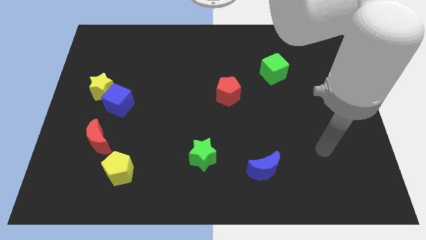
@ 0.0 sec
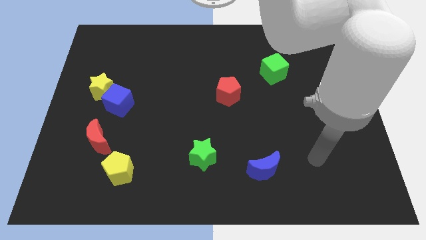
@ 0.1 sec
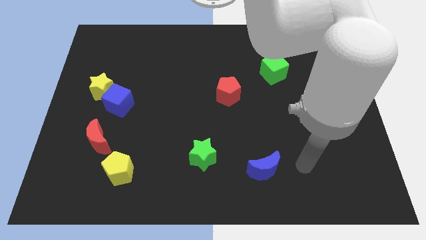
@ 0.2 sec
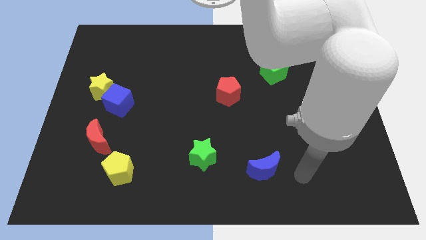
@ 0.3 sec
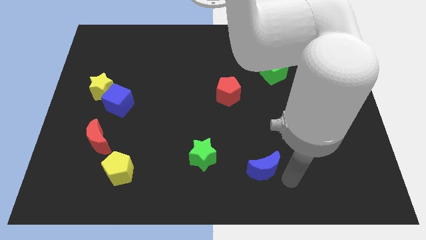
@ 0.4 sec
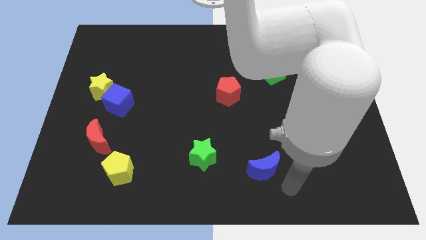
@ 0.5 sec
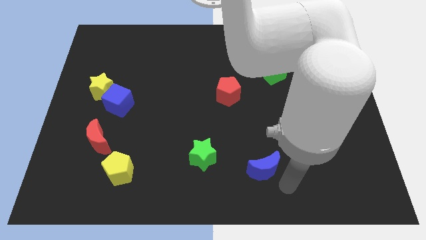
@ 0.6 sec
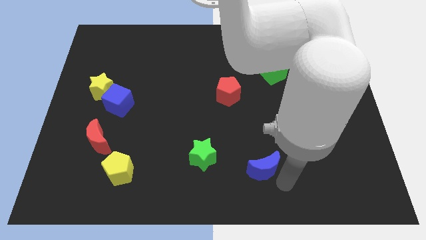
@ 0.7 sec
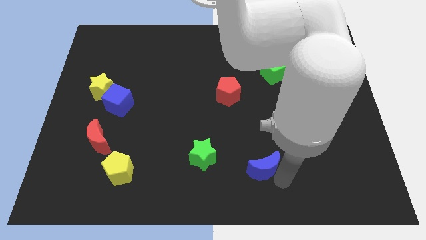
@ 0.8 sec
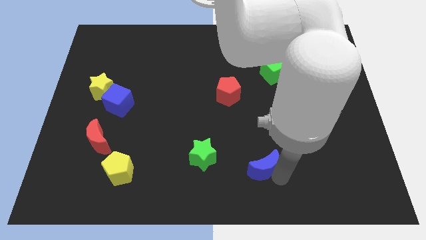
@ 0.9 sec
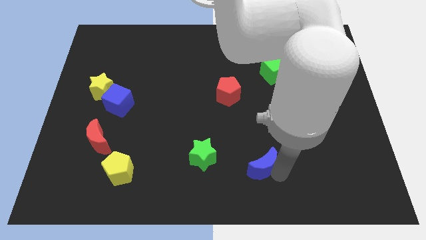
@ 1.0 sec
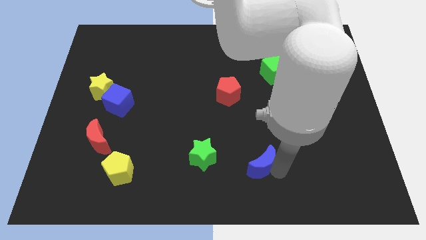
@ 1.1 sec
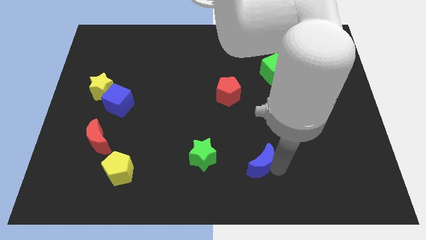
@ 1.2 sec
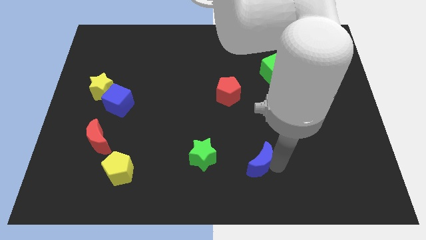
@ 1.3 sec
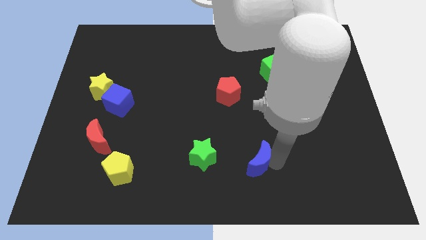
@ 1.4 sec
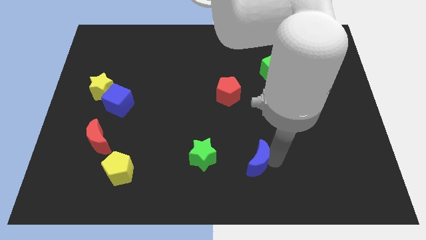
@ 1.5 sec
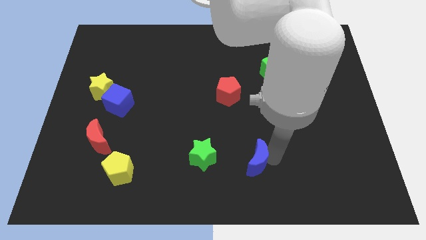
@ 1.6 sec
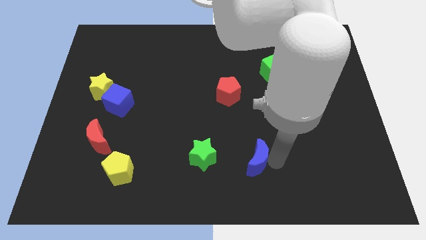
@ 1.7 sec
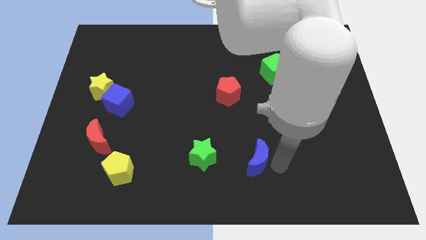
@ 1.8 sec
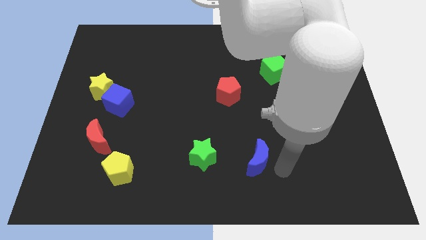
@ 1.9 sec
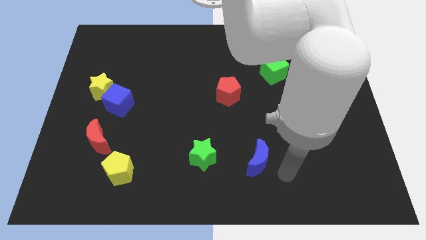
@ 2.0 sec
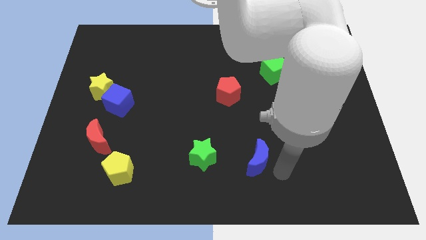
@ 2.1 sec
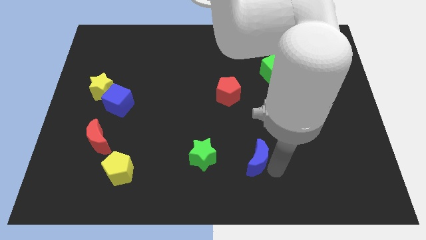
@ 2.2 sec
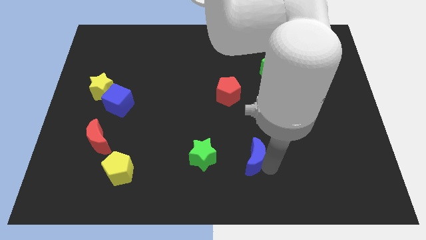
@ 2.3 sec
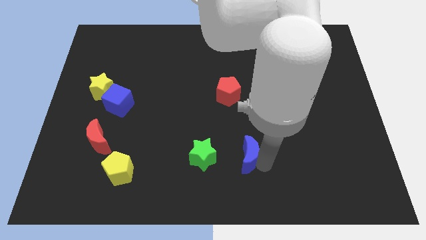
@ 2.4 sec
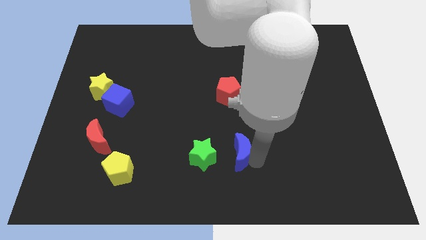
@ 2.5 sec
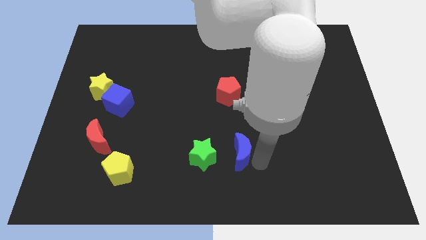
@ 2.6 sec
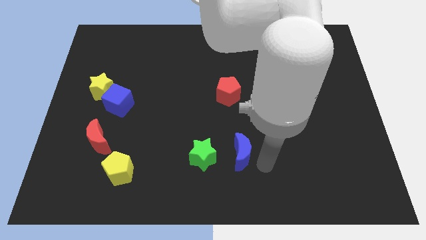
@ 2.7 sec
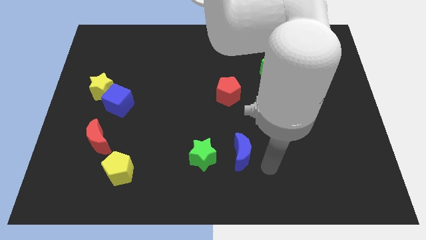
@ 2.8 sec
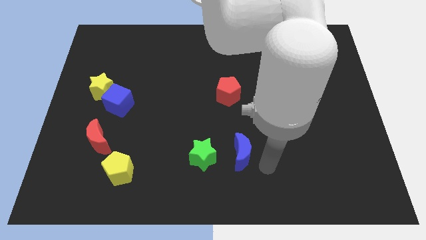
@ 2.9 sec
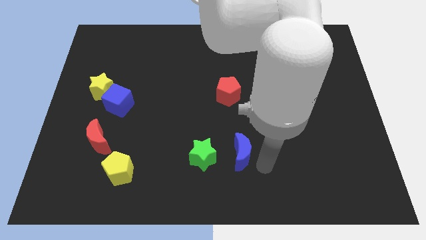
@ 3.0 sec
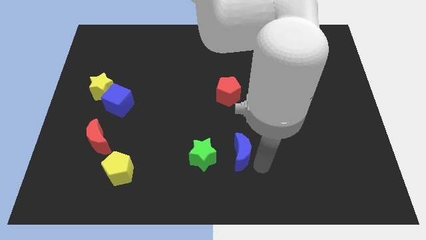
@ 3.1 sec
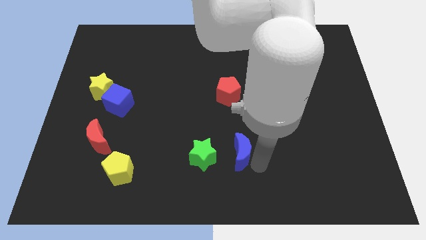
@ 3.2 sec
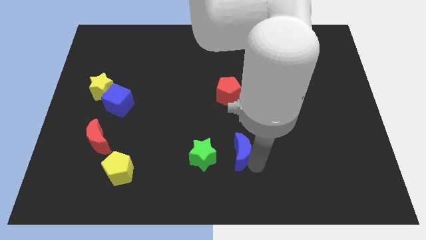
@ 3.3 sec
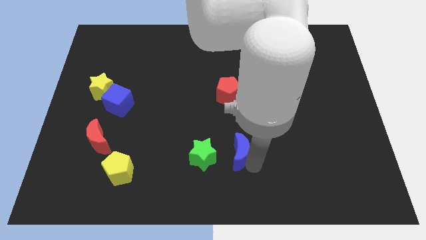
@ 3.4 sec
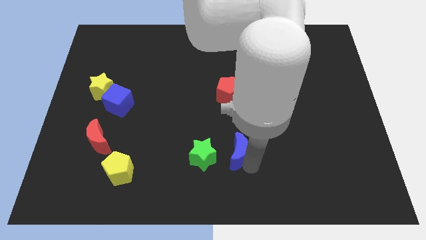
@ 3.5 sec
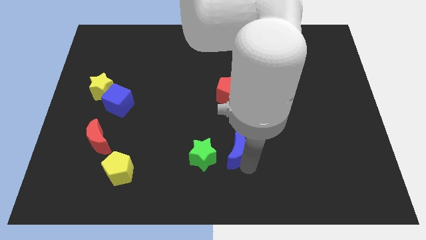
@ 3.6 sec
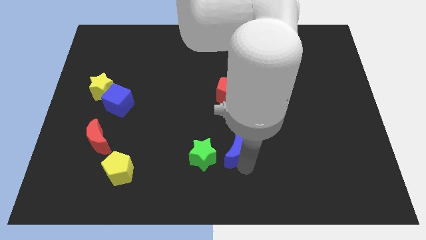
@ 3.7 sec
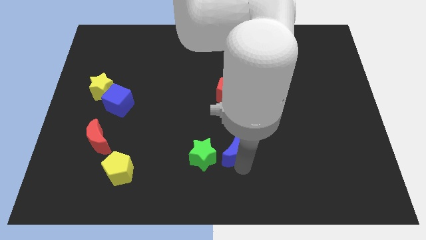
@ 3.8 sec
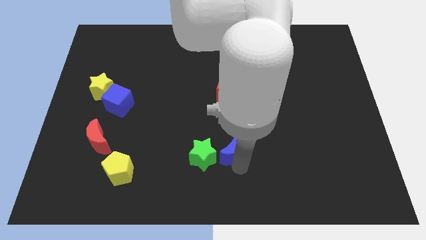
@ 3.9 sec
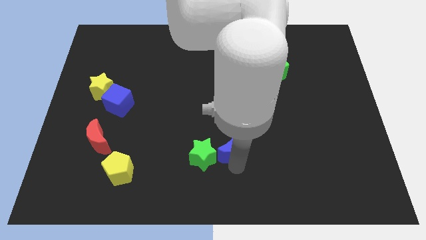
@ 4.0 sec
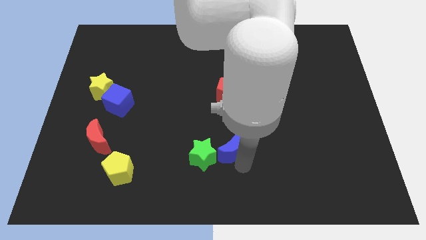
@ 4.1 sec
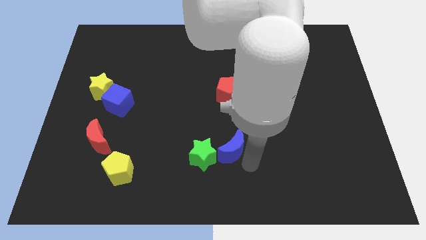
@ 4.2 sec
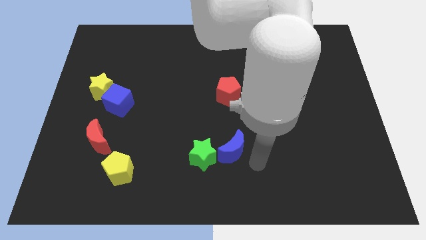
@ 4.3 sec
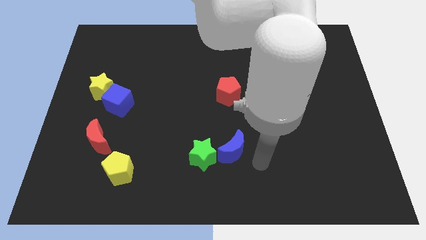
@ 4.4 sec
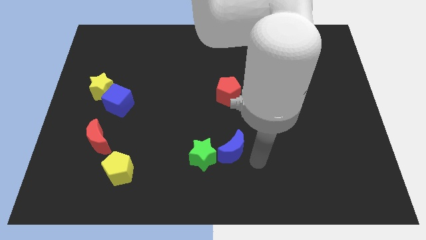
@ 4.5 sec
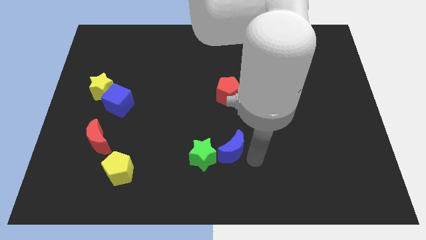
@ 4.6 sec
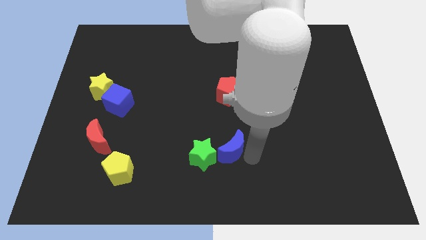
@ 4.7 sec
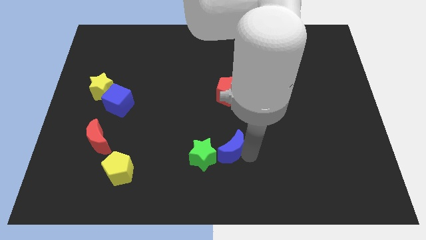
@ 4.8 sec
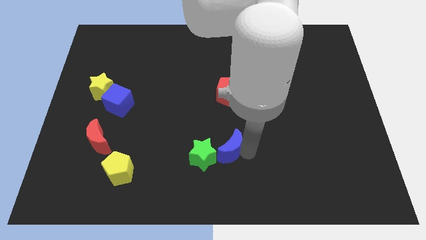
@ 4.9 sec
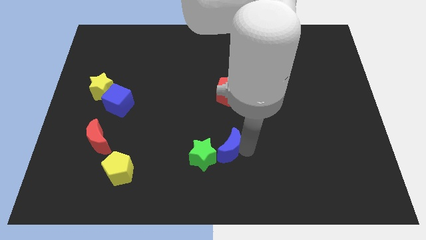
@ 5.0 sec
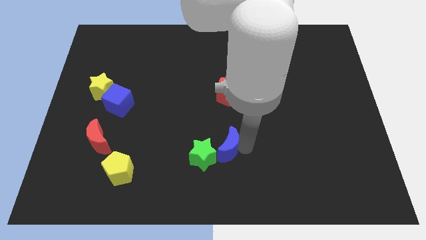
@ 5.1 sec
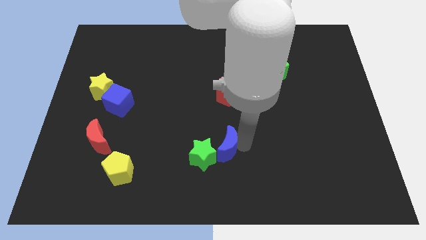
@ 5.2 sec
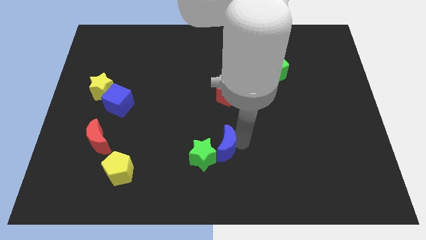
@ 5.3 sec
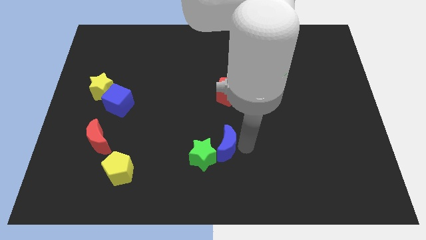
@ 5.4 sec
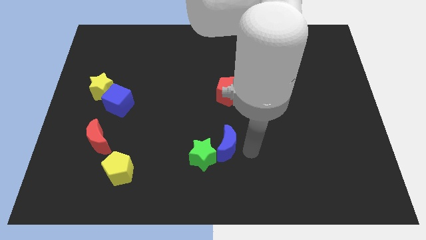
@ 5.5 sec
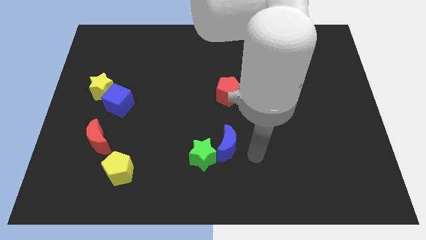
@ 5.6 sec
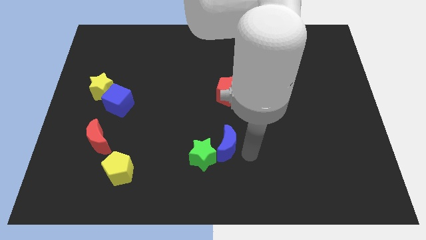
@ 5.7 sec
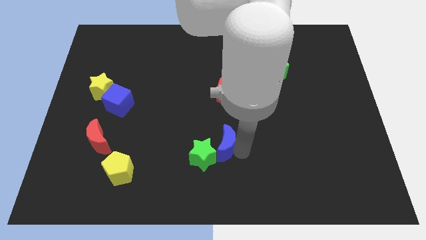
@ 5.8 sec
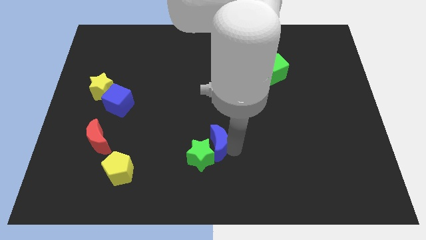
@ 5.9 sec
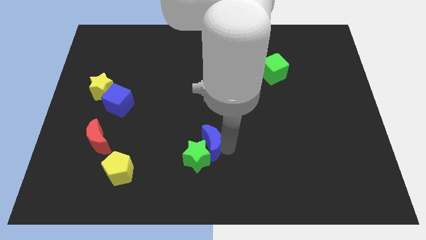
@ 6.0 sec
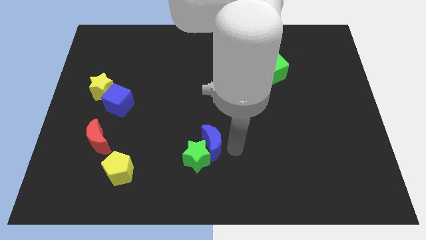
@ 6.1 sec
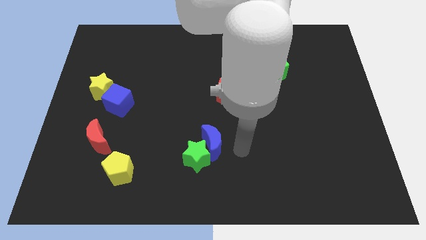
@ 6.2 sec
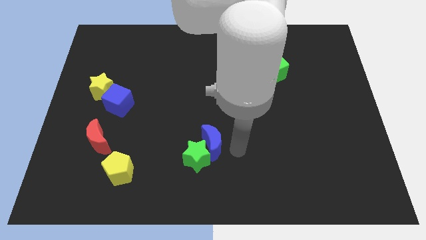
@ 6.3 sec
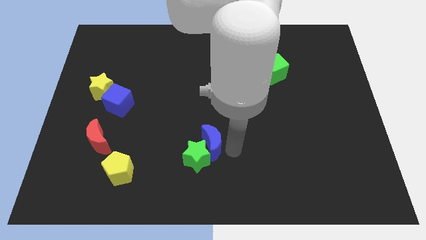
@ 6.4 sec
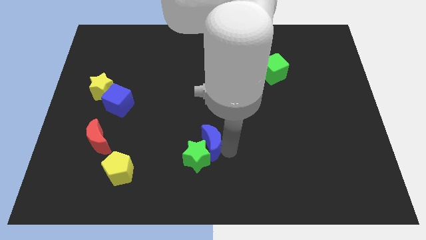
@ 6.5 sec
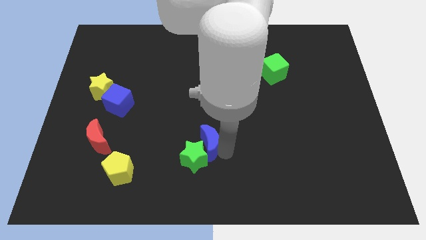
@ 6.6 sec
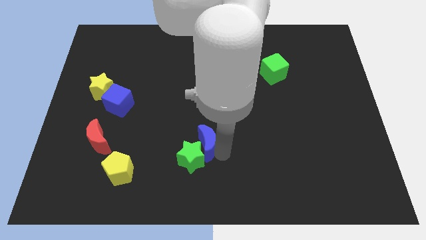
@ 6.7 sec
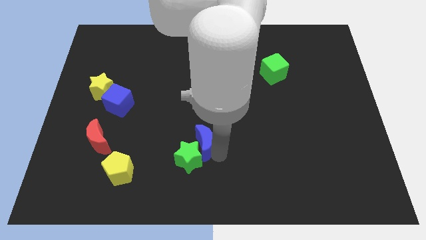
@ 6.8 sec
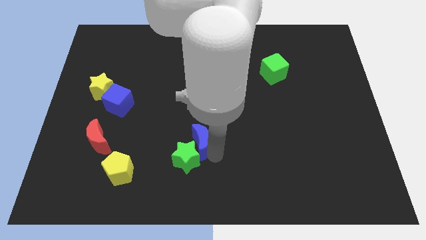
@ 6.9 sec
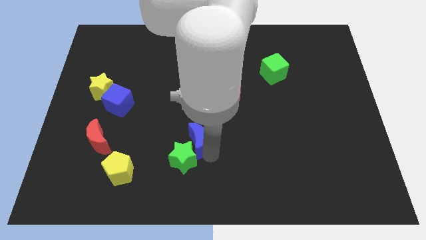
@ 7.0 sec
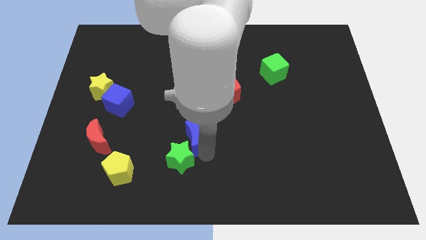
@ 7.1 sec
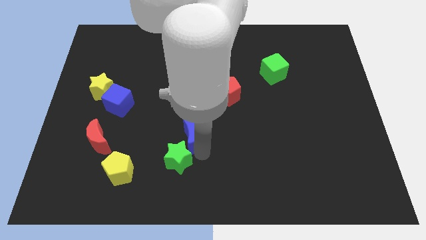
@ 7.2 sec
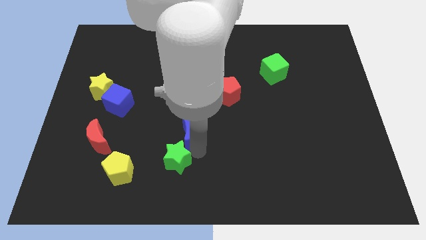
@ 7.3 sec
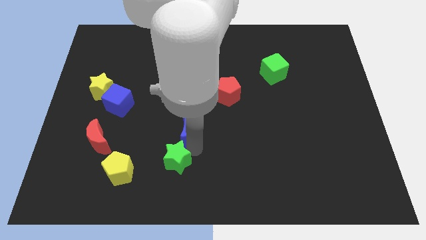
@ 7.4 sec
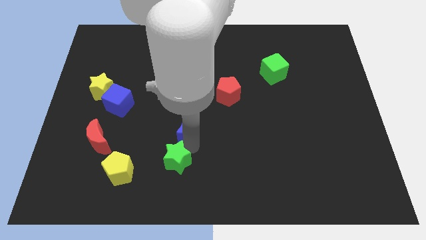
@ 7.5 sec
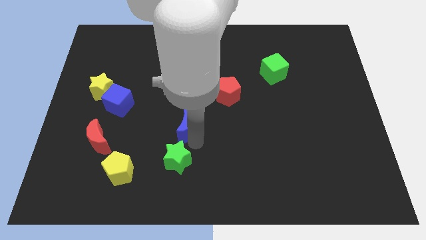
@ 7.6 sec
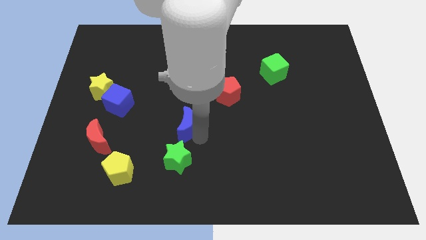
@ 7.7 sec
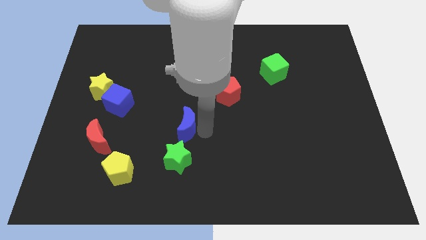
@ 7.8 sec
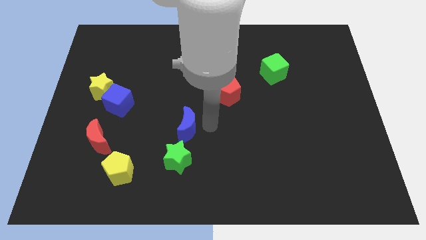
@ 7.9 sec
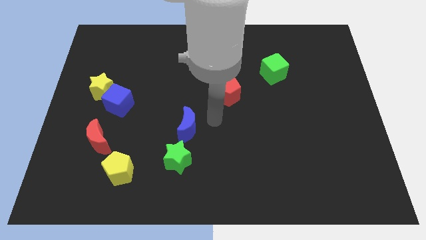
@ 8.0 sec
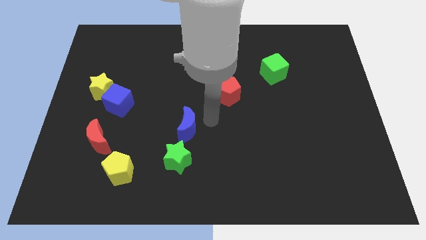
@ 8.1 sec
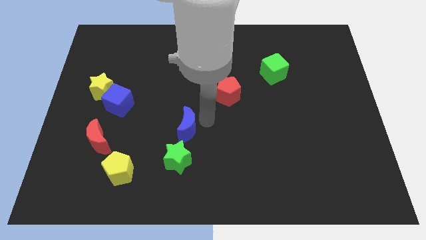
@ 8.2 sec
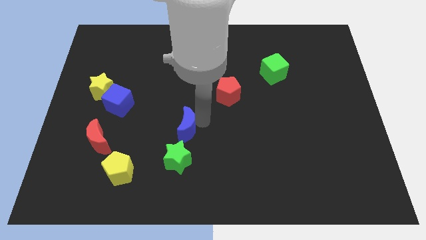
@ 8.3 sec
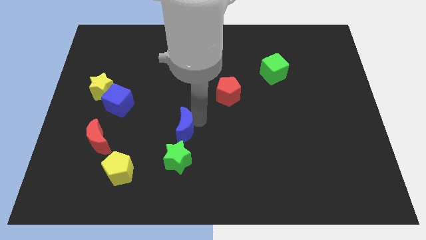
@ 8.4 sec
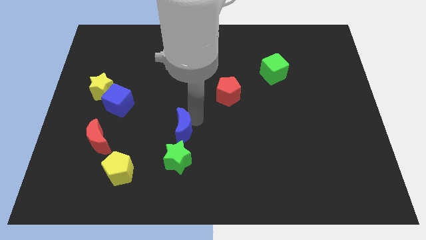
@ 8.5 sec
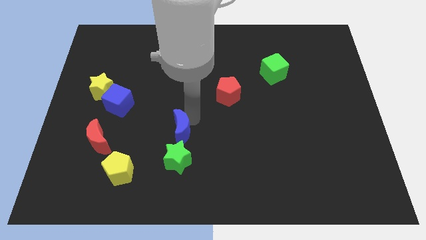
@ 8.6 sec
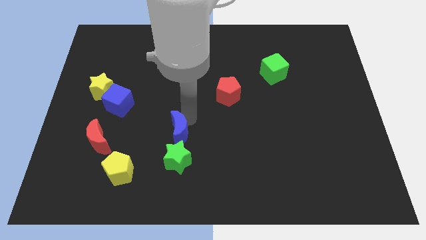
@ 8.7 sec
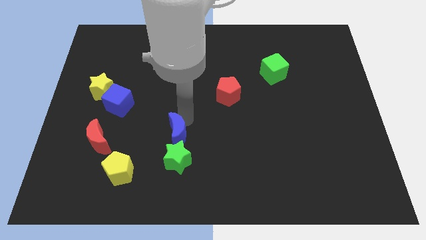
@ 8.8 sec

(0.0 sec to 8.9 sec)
slide the blue moon diagonally up and to the left of the green star
